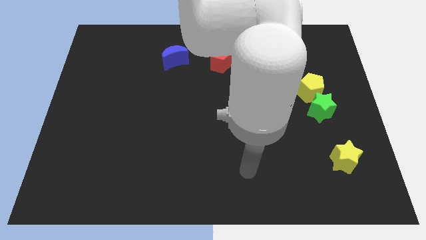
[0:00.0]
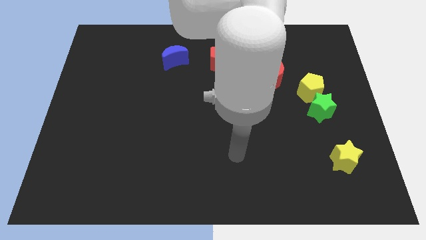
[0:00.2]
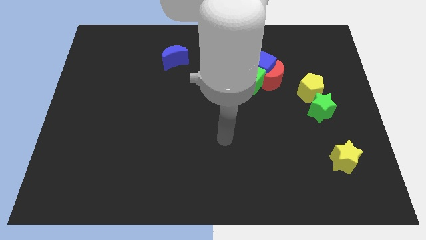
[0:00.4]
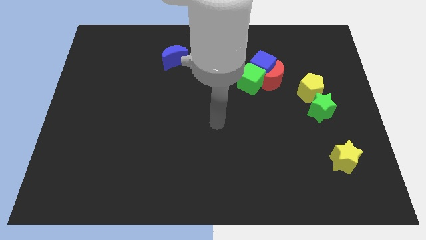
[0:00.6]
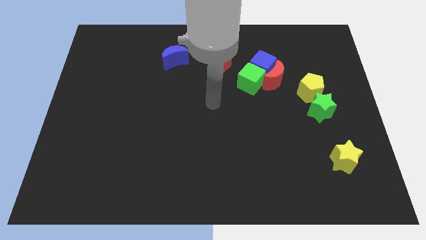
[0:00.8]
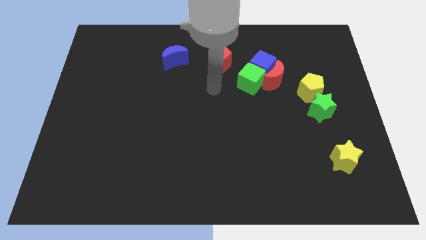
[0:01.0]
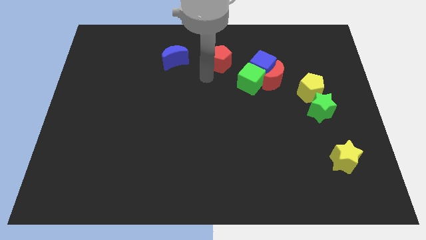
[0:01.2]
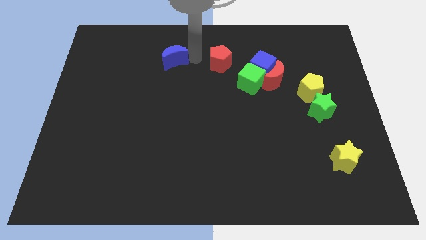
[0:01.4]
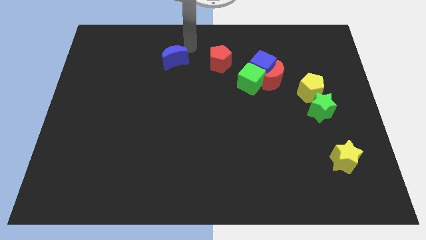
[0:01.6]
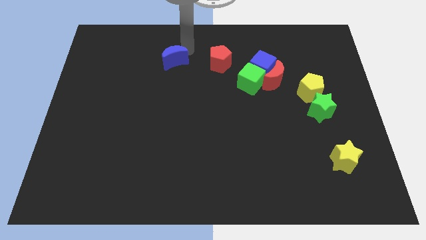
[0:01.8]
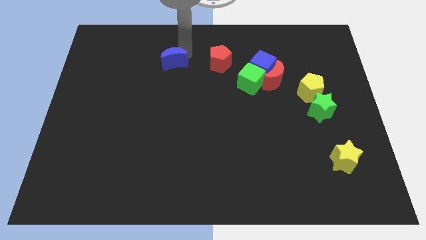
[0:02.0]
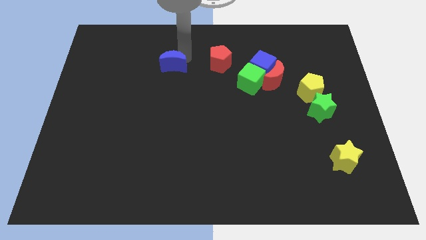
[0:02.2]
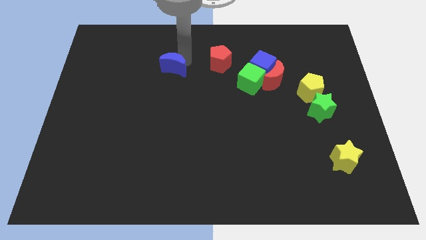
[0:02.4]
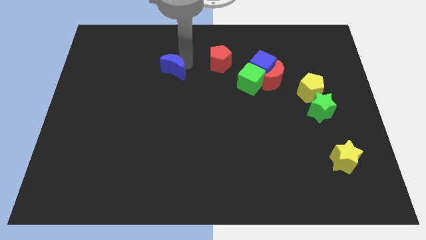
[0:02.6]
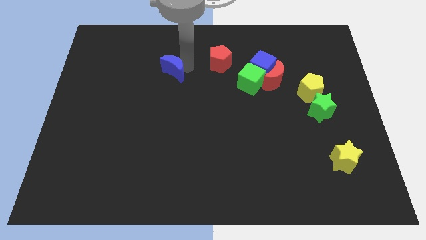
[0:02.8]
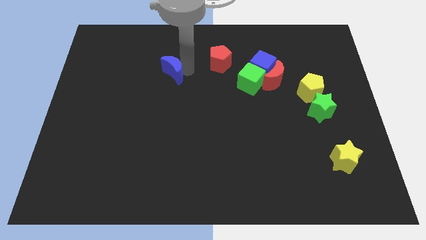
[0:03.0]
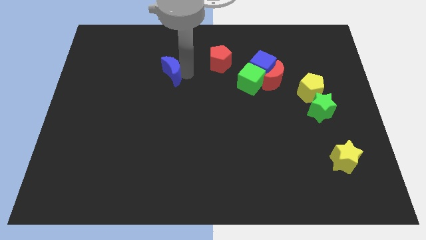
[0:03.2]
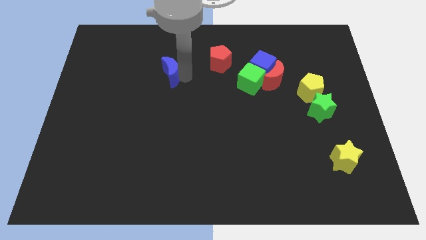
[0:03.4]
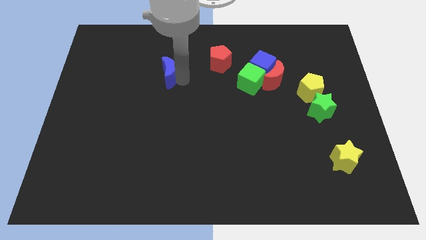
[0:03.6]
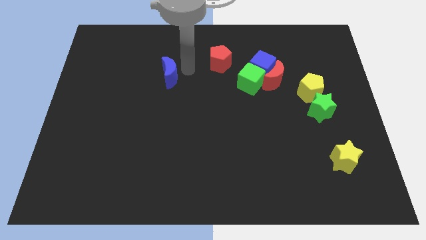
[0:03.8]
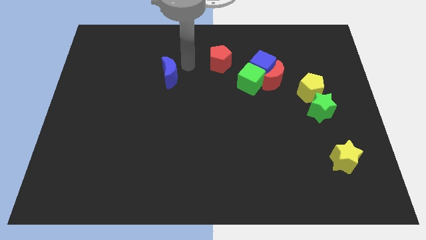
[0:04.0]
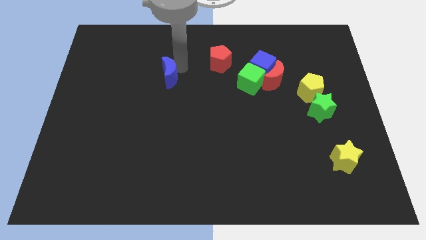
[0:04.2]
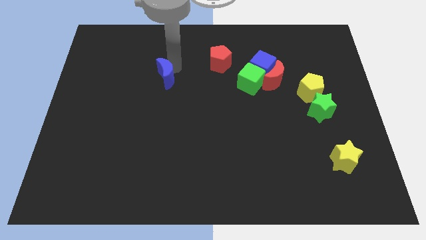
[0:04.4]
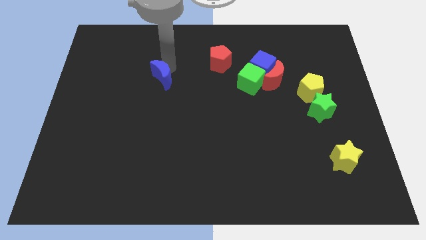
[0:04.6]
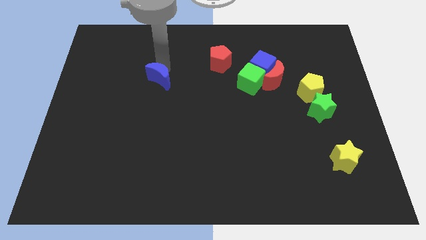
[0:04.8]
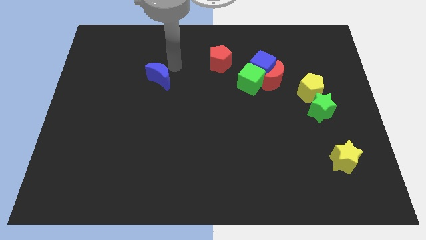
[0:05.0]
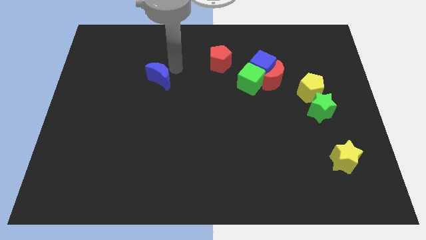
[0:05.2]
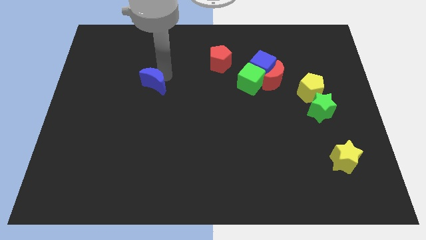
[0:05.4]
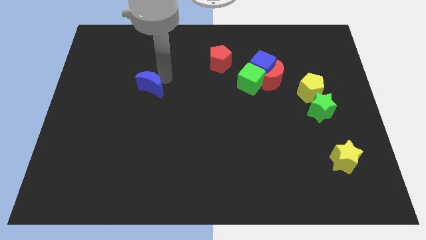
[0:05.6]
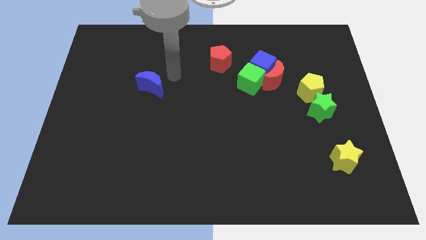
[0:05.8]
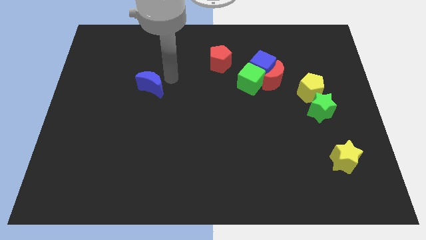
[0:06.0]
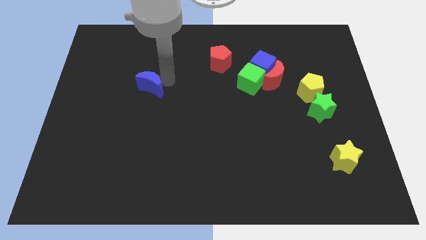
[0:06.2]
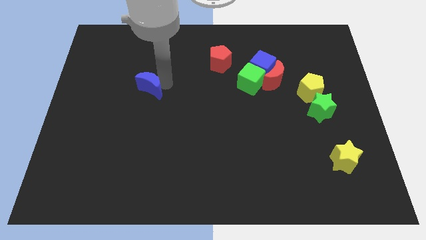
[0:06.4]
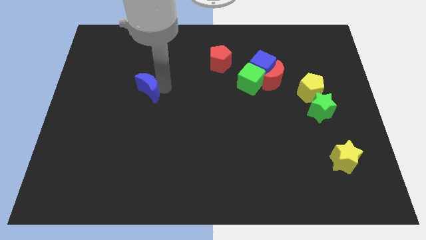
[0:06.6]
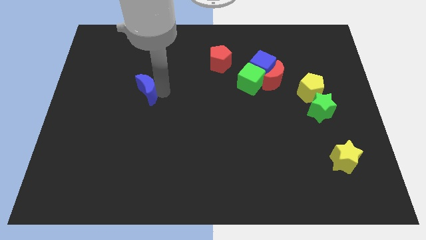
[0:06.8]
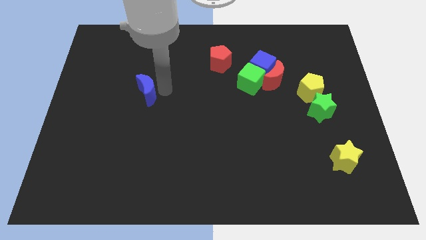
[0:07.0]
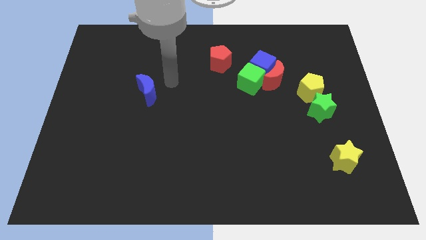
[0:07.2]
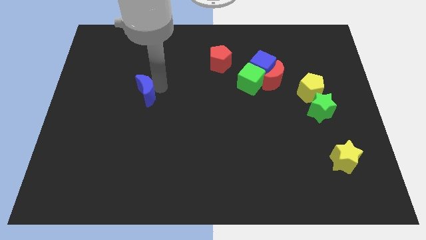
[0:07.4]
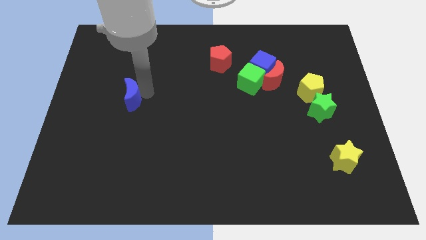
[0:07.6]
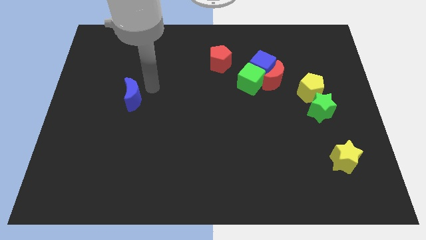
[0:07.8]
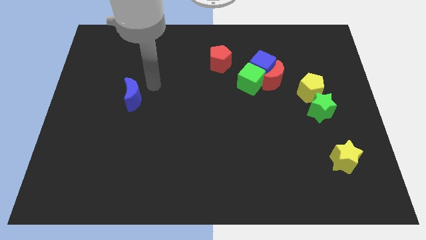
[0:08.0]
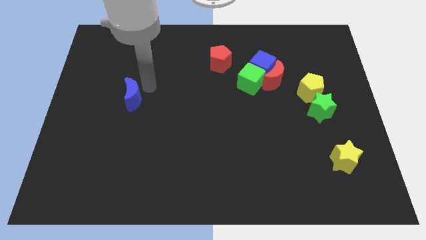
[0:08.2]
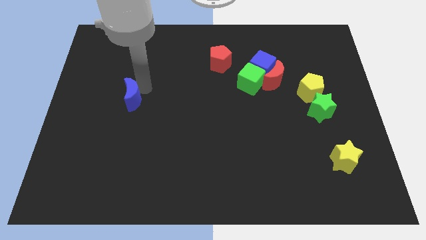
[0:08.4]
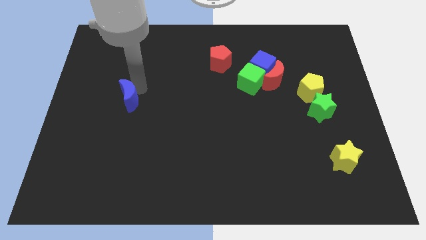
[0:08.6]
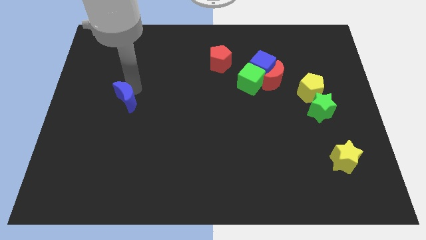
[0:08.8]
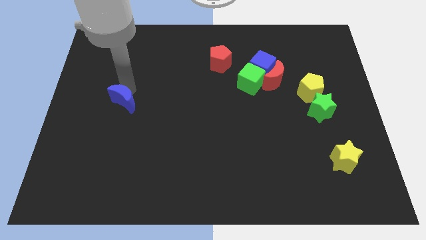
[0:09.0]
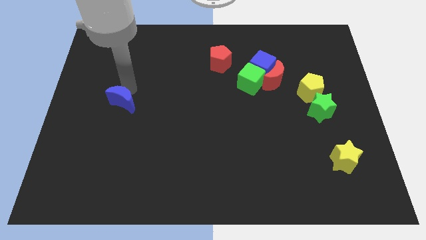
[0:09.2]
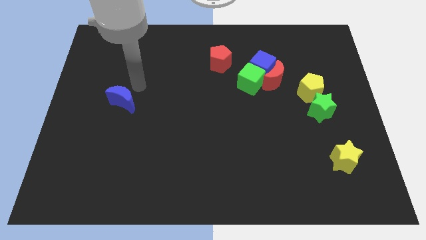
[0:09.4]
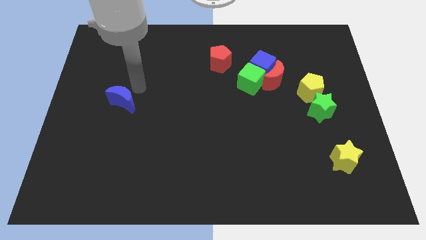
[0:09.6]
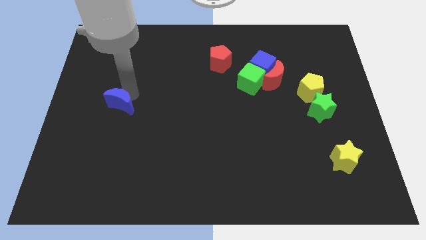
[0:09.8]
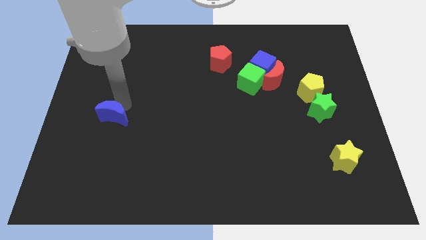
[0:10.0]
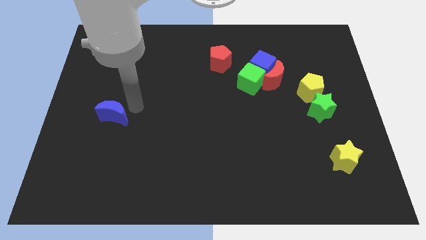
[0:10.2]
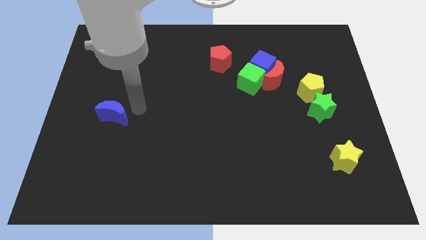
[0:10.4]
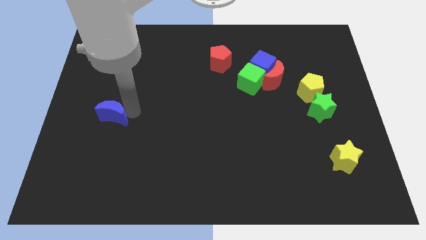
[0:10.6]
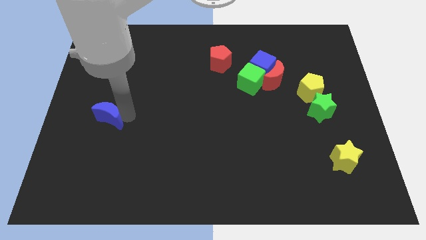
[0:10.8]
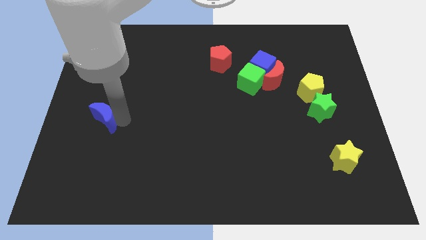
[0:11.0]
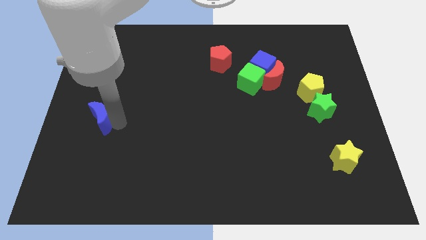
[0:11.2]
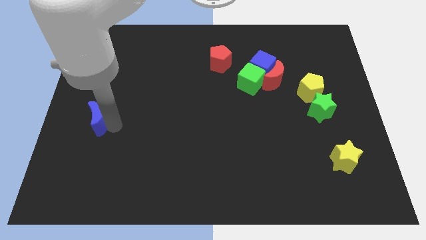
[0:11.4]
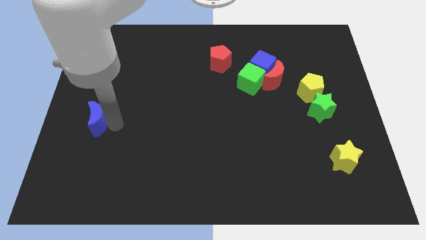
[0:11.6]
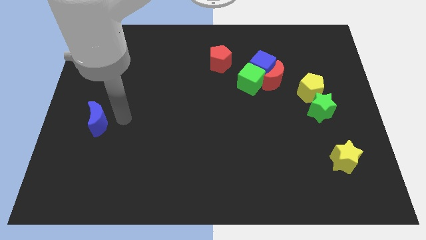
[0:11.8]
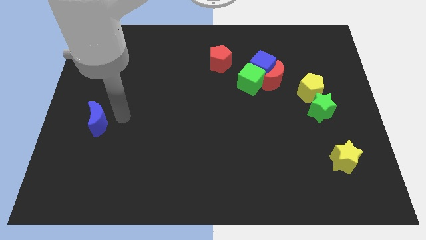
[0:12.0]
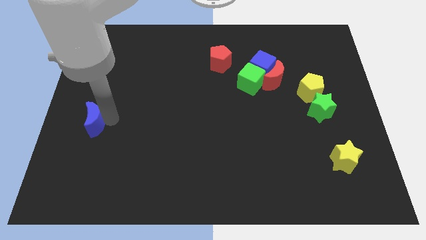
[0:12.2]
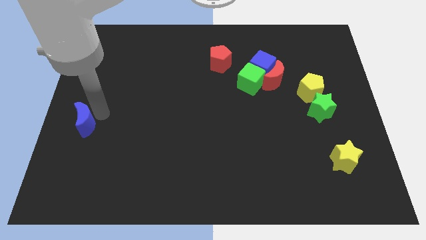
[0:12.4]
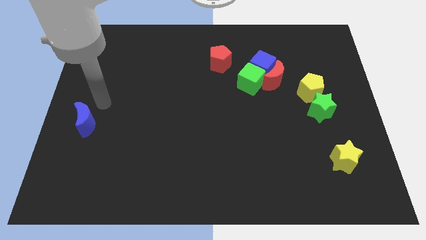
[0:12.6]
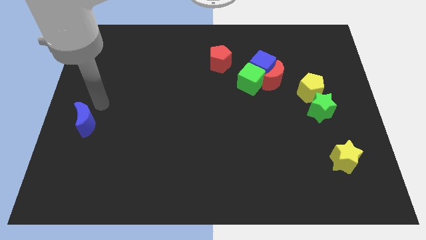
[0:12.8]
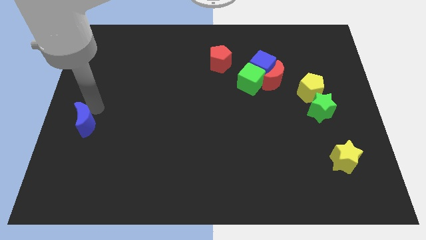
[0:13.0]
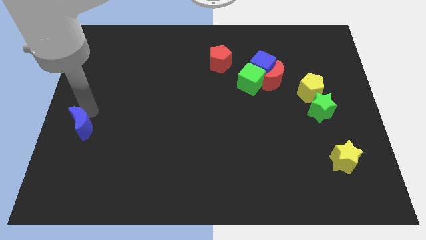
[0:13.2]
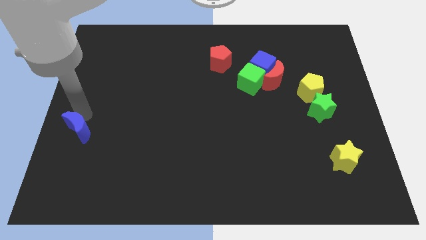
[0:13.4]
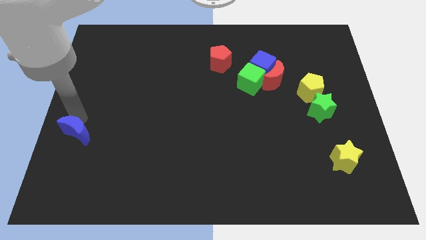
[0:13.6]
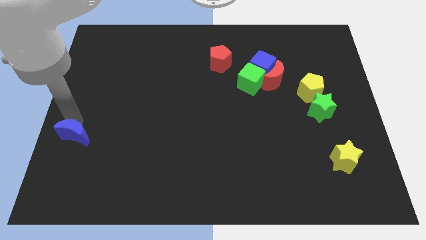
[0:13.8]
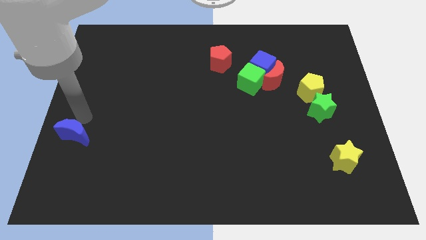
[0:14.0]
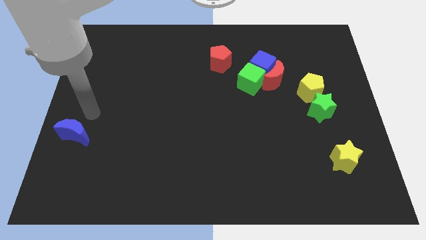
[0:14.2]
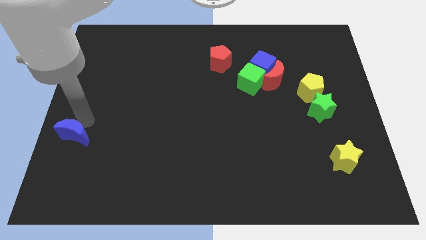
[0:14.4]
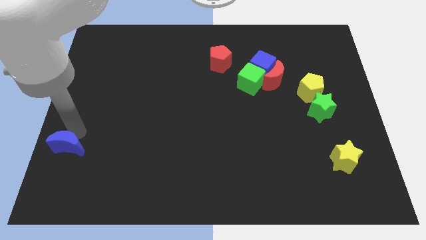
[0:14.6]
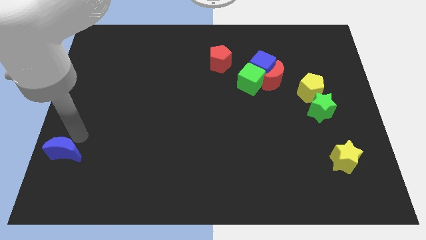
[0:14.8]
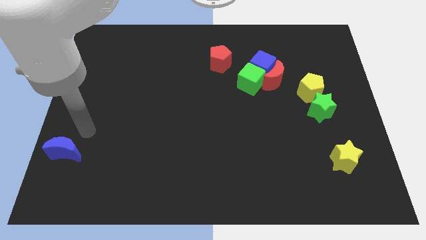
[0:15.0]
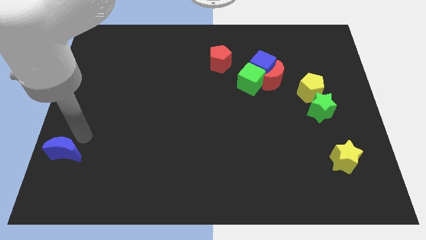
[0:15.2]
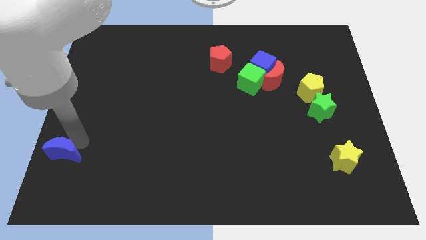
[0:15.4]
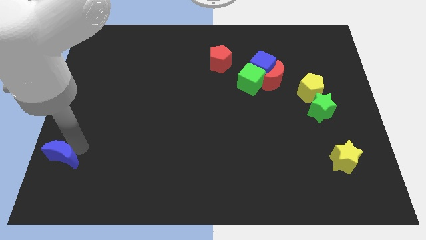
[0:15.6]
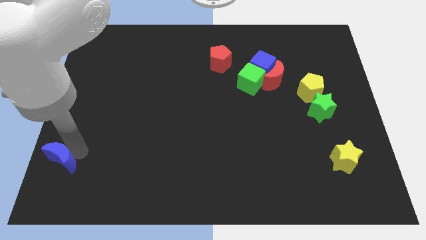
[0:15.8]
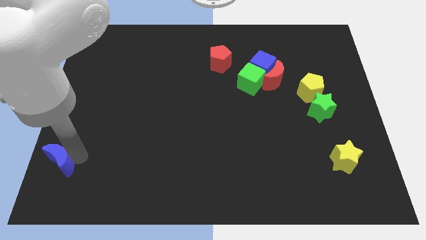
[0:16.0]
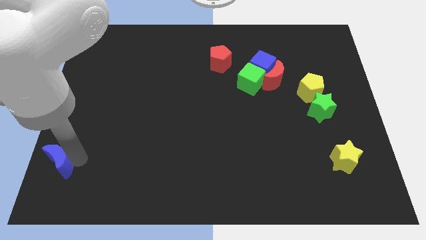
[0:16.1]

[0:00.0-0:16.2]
put the blue moon to the bottom left corner
